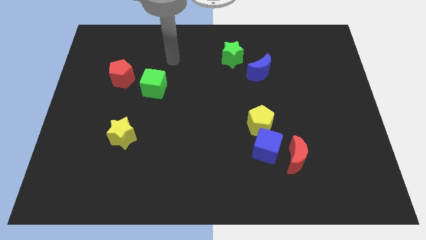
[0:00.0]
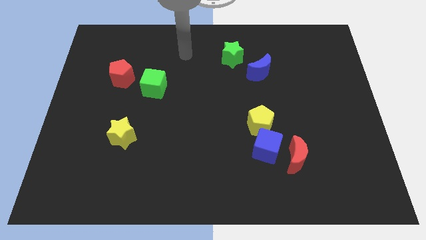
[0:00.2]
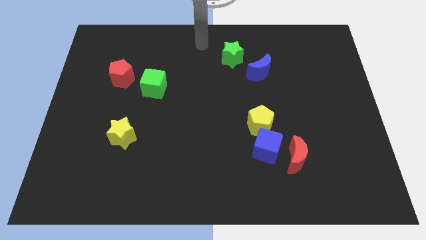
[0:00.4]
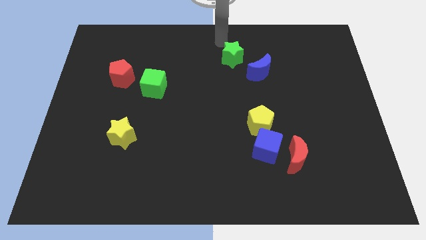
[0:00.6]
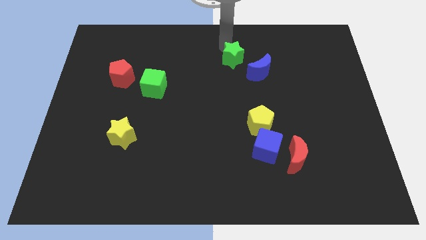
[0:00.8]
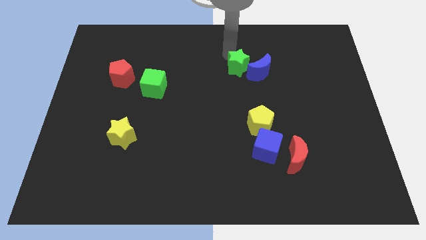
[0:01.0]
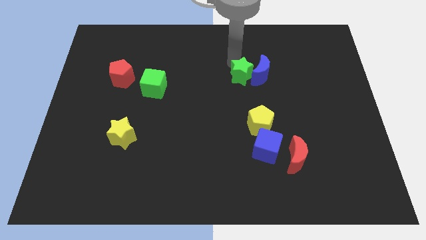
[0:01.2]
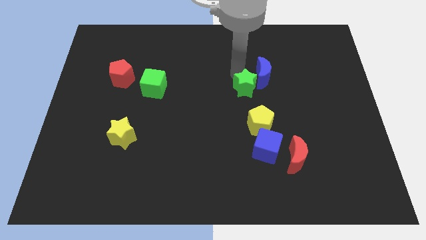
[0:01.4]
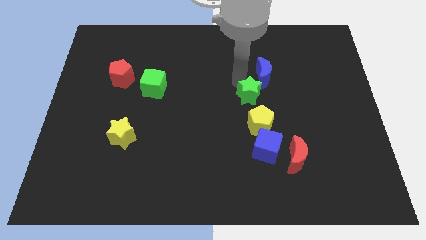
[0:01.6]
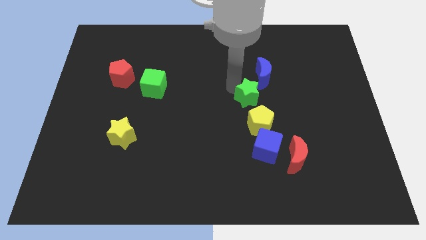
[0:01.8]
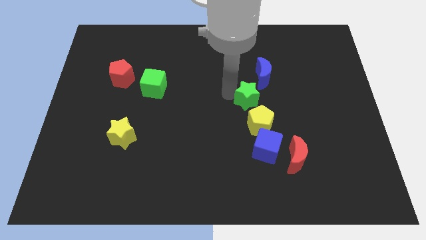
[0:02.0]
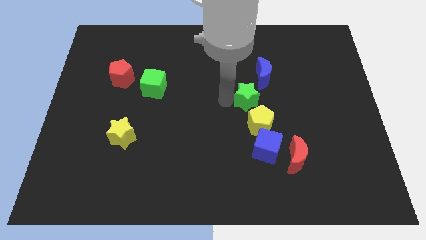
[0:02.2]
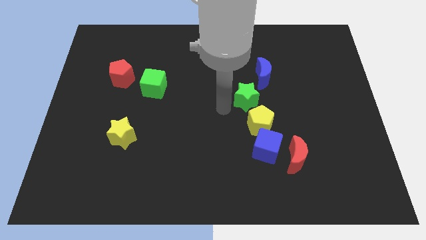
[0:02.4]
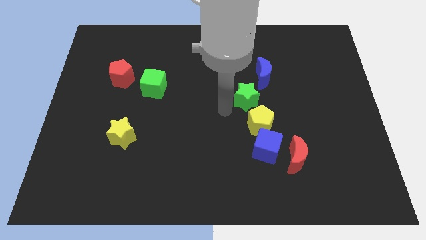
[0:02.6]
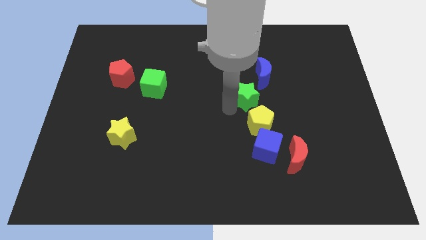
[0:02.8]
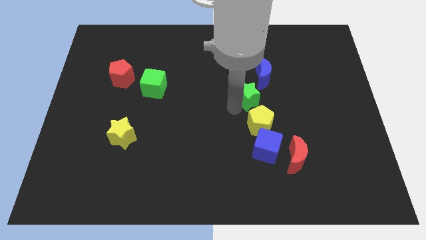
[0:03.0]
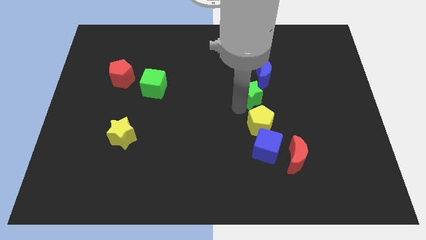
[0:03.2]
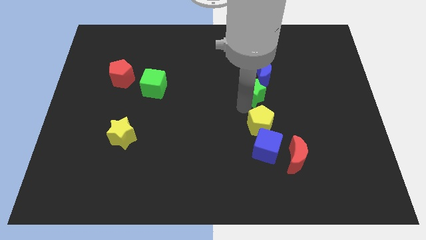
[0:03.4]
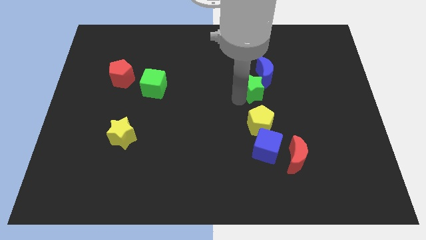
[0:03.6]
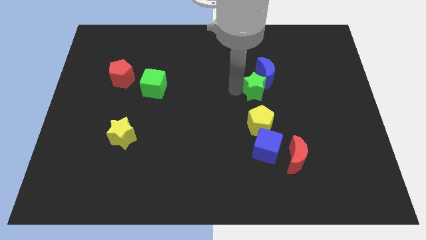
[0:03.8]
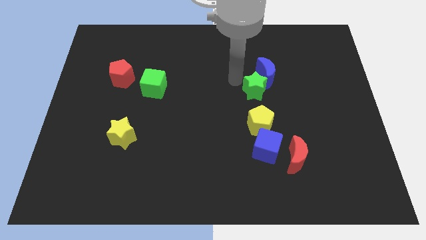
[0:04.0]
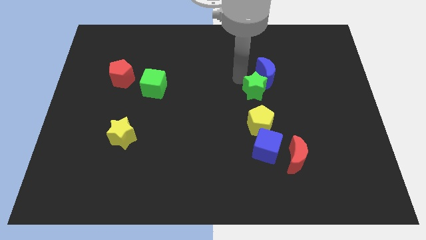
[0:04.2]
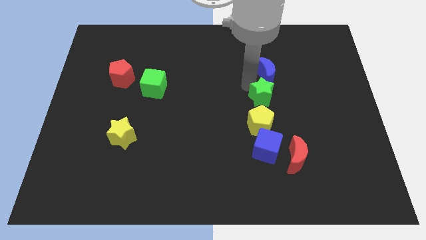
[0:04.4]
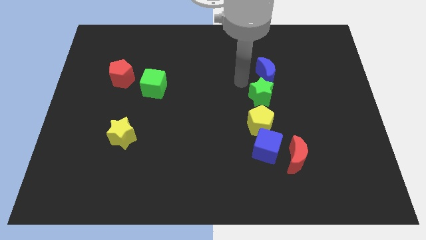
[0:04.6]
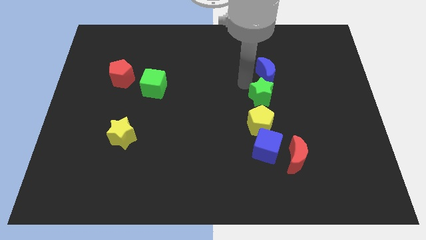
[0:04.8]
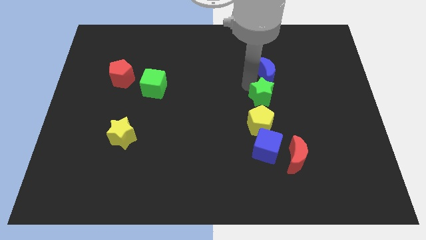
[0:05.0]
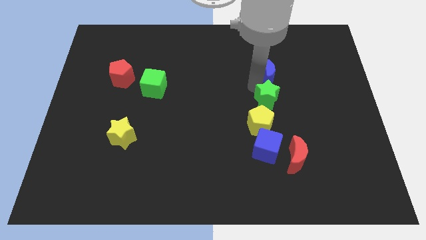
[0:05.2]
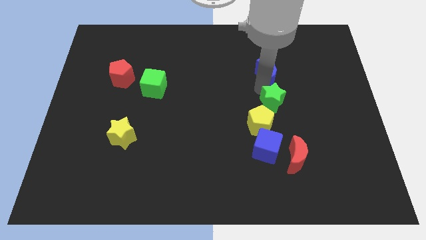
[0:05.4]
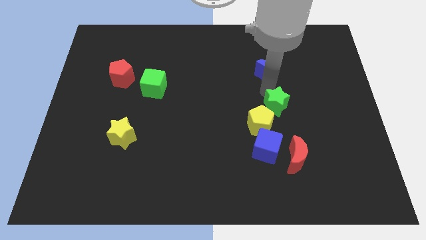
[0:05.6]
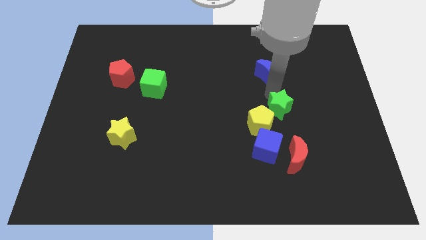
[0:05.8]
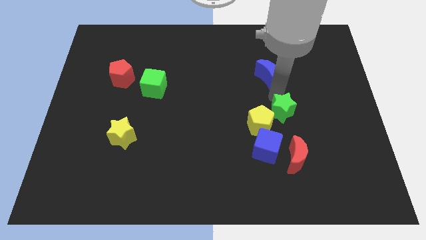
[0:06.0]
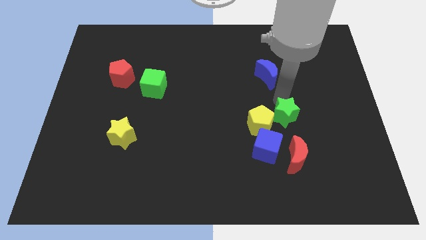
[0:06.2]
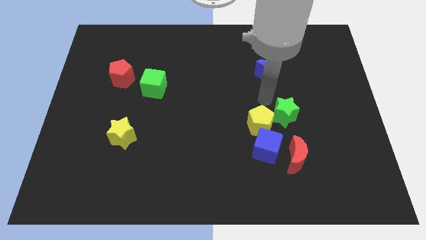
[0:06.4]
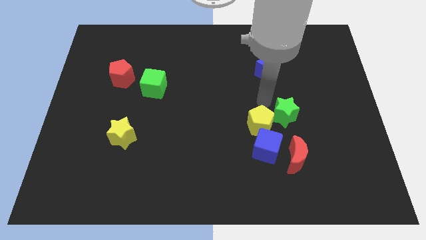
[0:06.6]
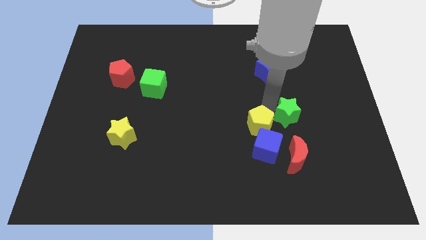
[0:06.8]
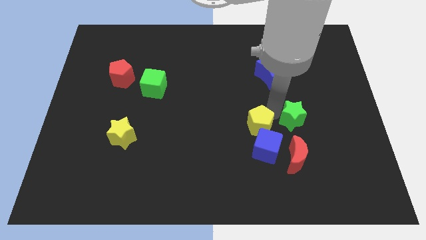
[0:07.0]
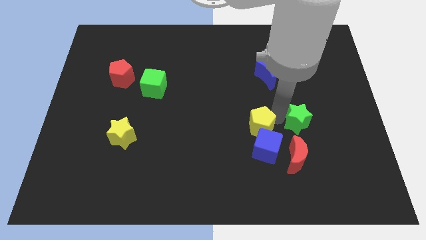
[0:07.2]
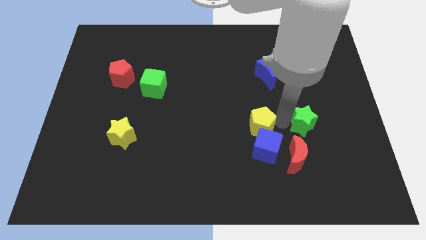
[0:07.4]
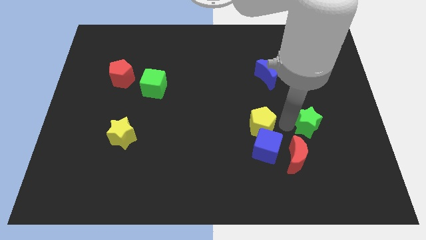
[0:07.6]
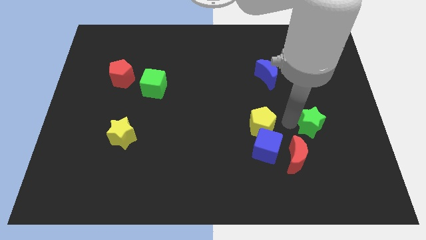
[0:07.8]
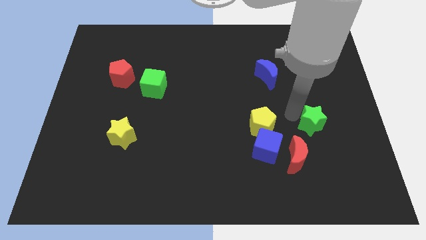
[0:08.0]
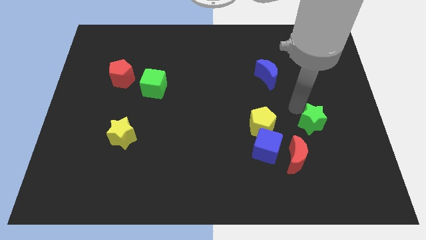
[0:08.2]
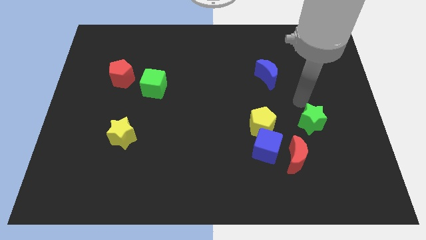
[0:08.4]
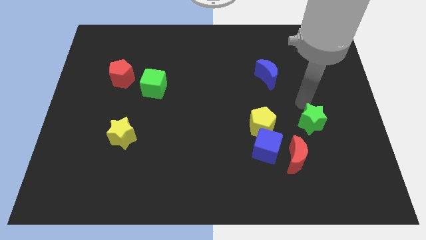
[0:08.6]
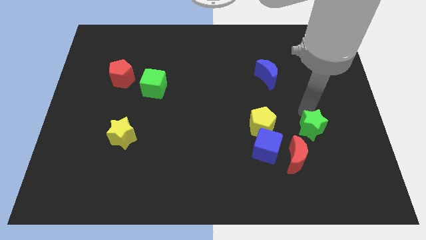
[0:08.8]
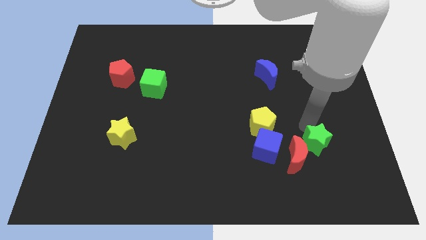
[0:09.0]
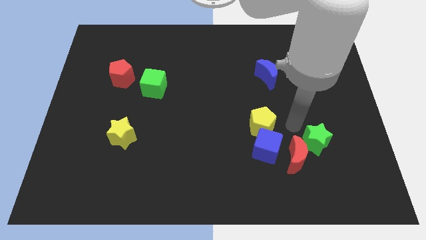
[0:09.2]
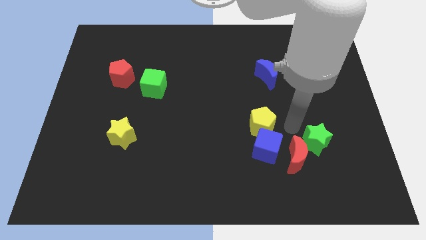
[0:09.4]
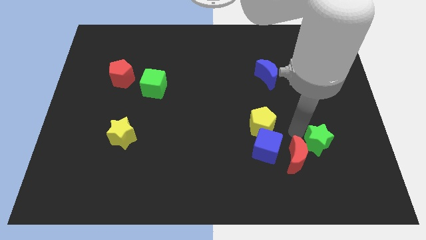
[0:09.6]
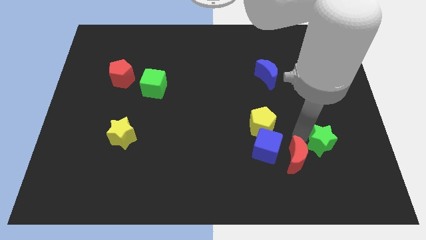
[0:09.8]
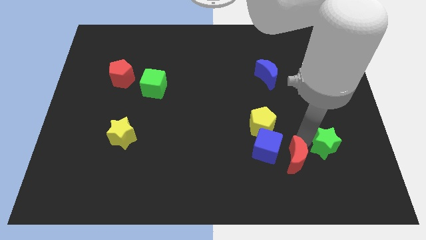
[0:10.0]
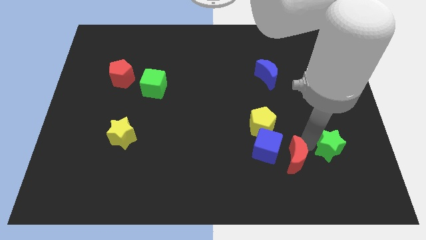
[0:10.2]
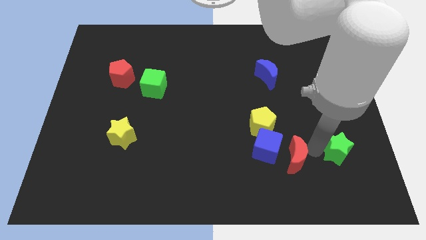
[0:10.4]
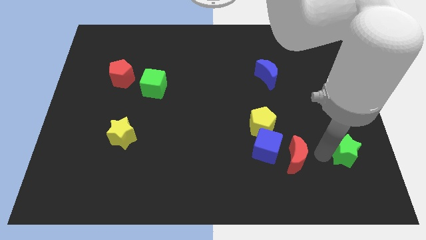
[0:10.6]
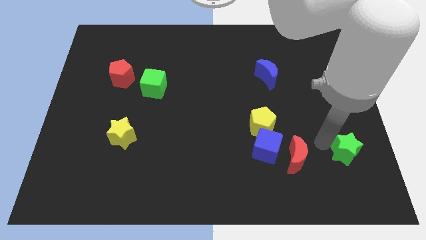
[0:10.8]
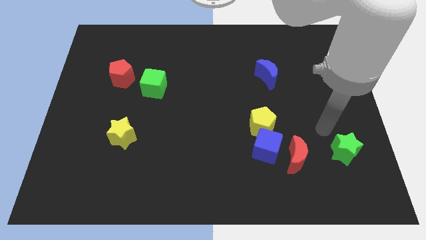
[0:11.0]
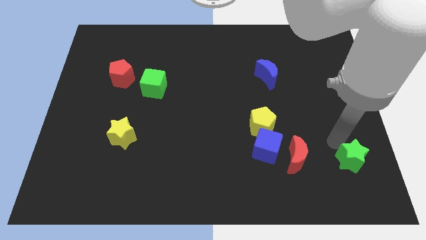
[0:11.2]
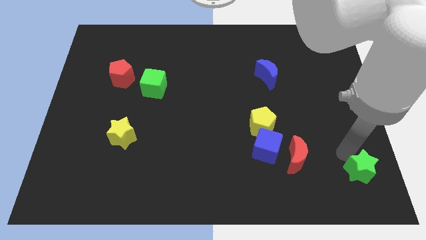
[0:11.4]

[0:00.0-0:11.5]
move the green star to the lower right corner
